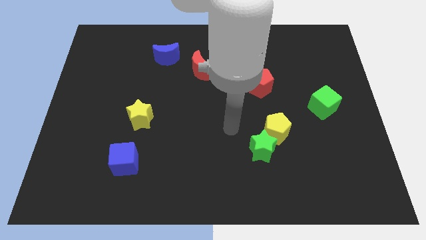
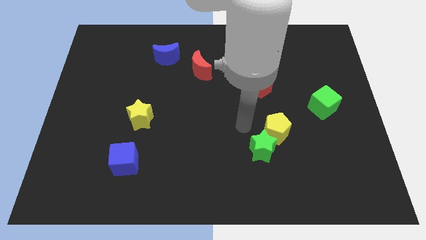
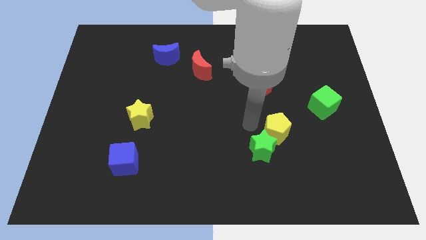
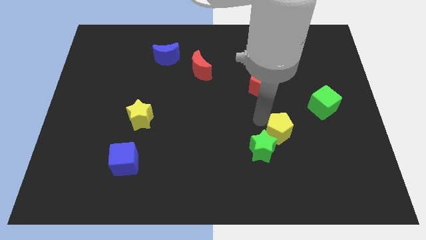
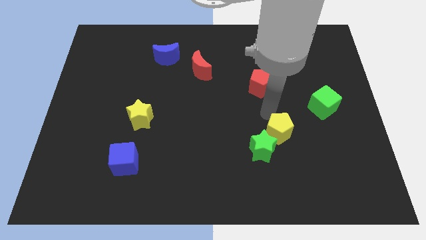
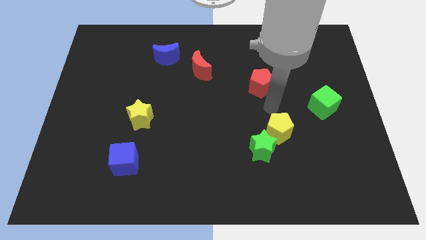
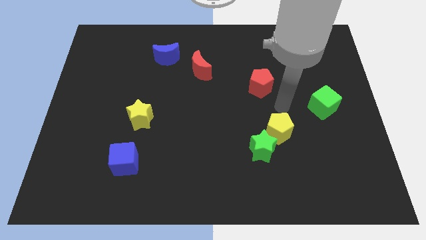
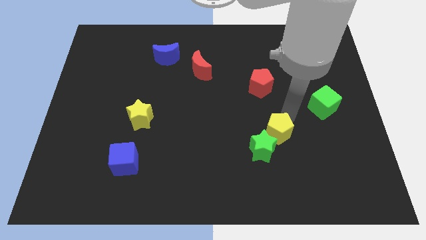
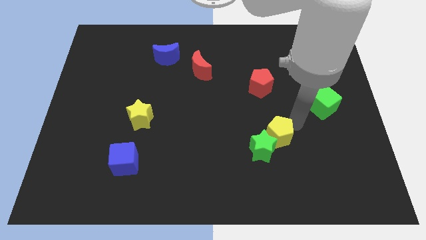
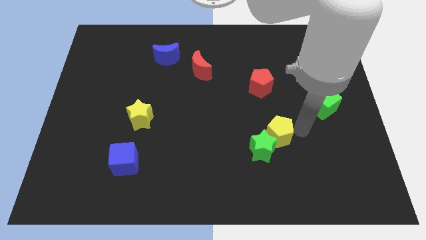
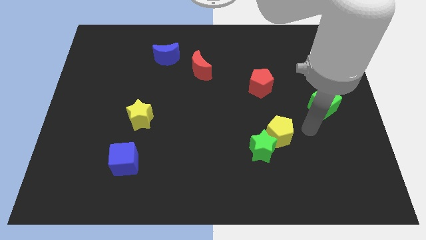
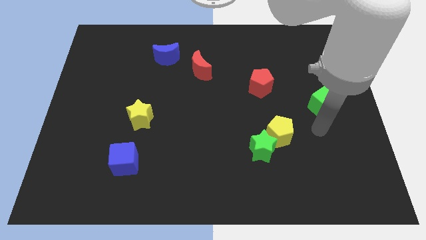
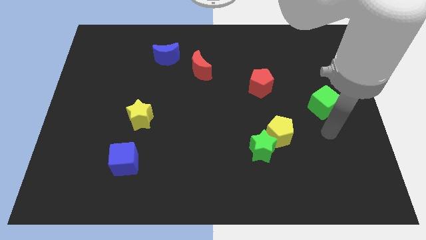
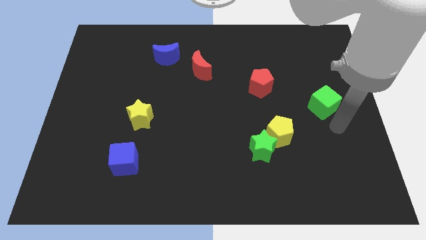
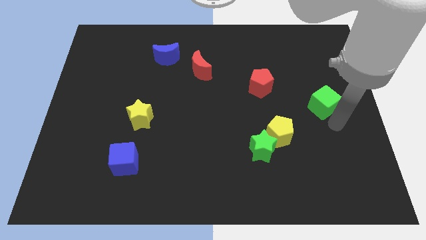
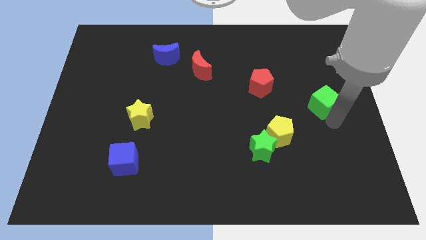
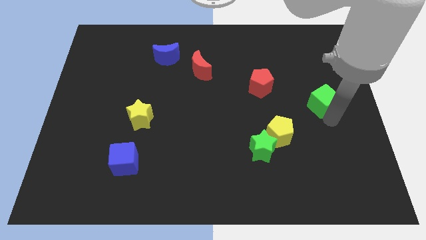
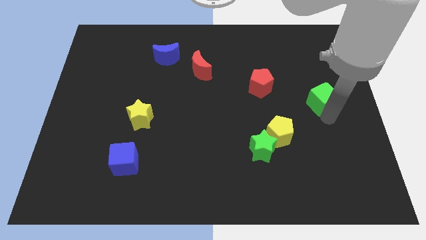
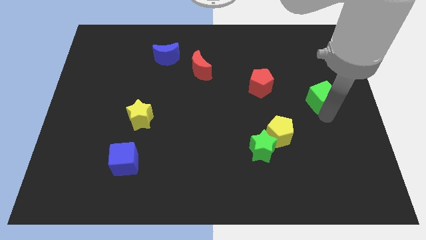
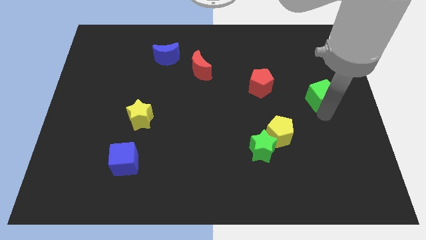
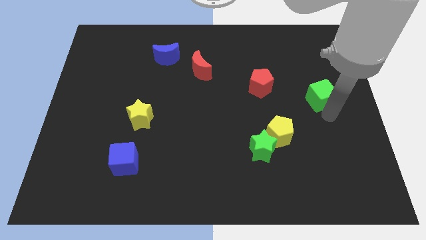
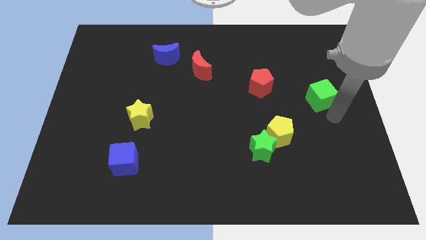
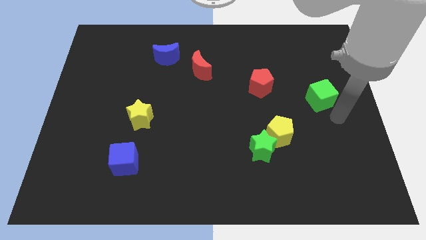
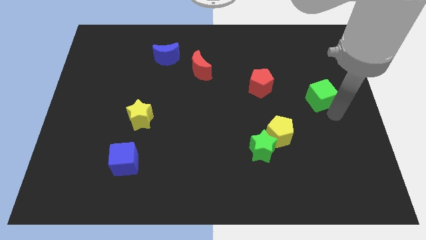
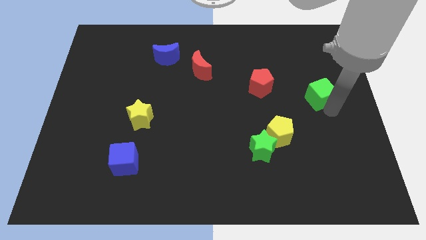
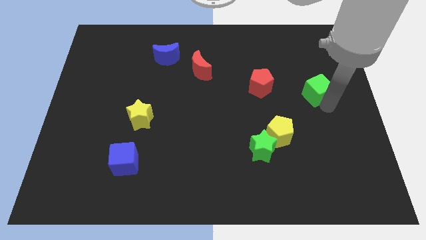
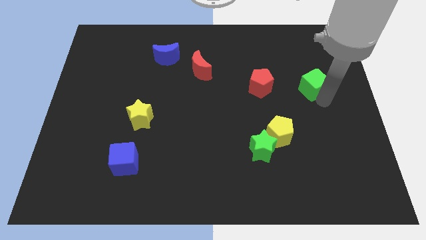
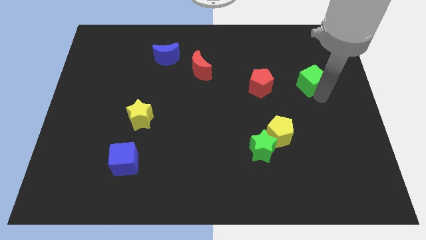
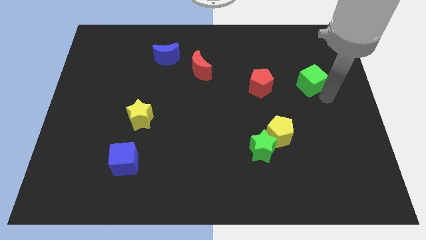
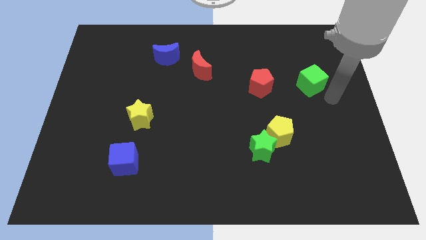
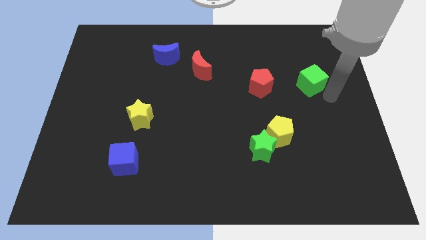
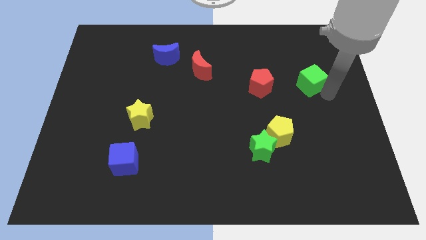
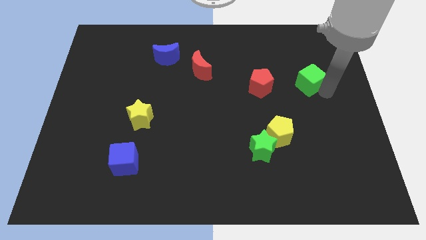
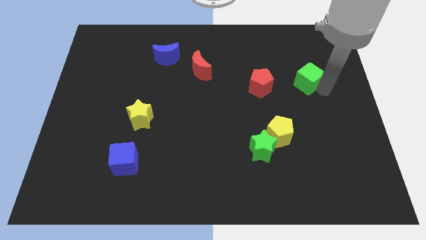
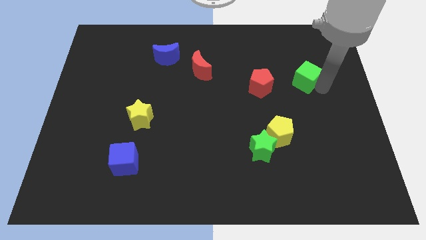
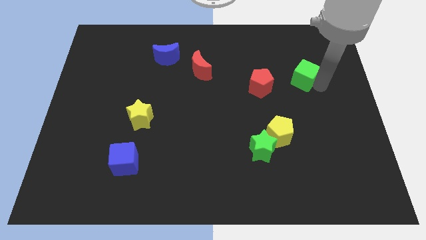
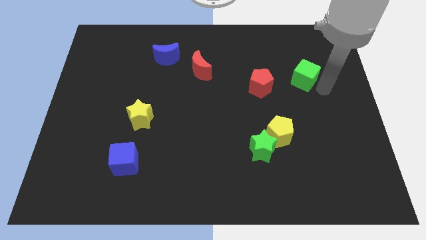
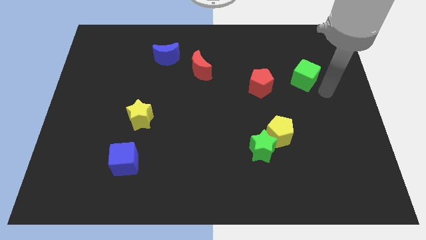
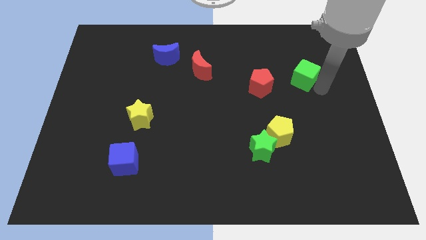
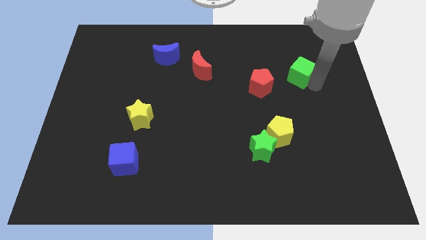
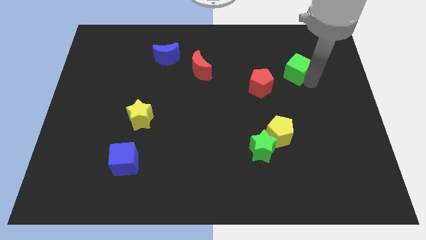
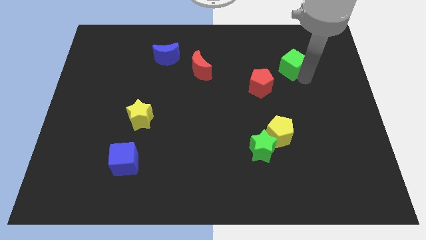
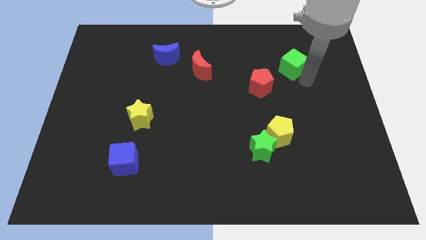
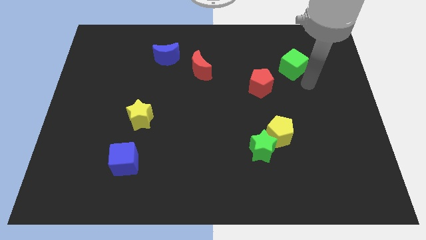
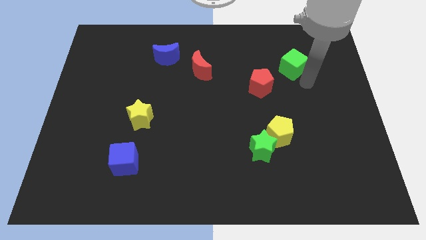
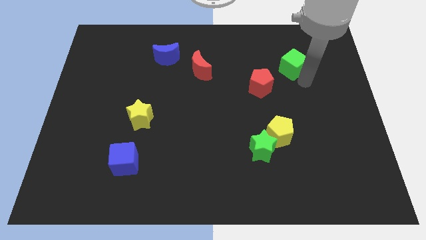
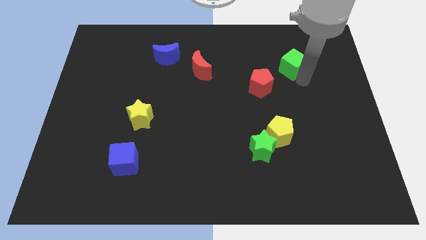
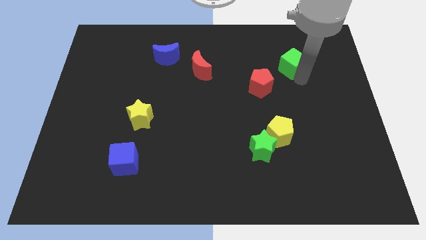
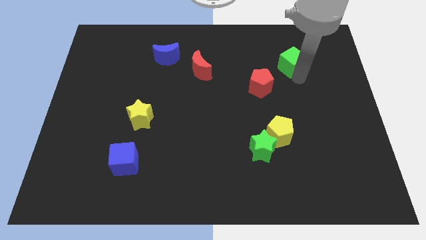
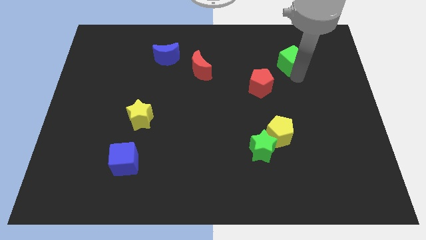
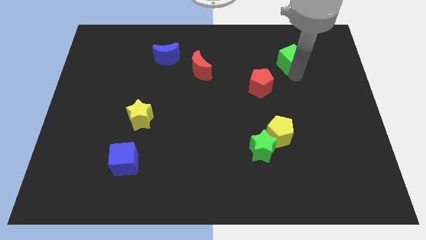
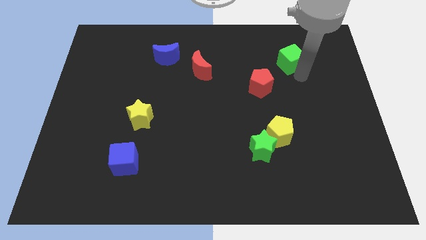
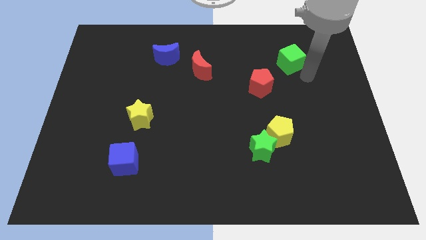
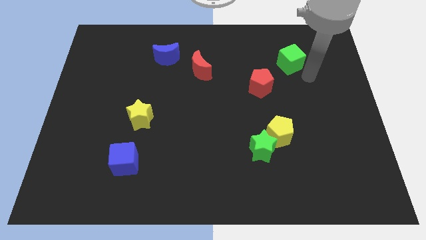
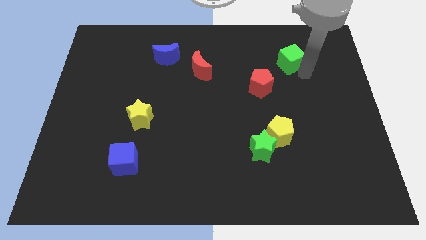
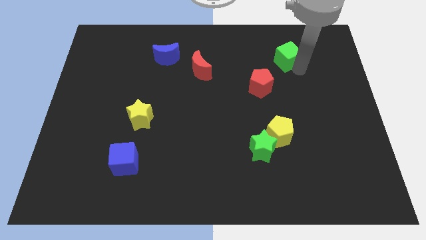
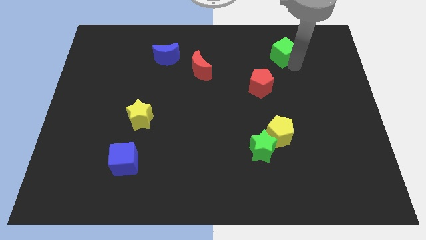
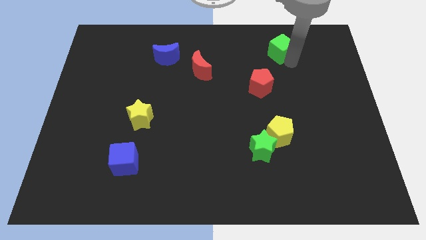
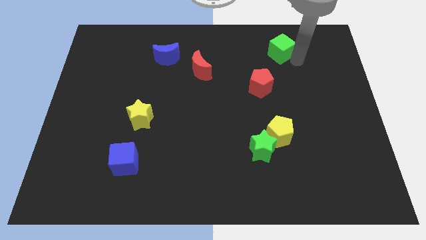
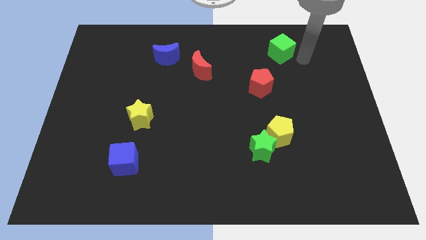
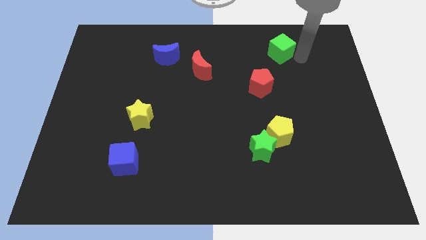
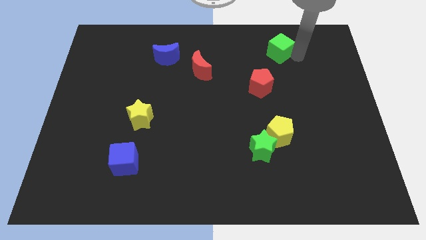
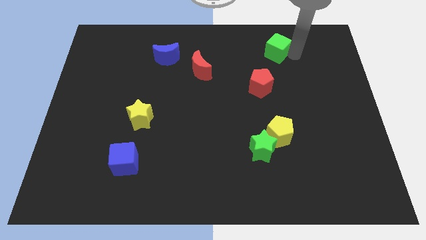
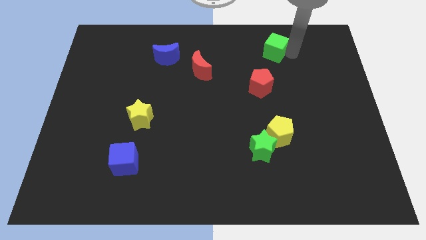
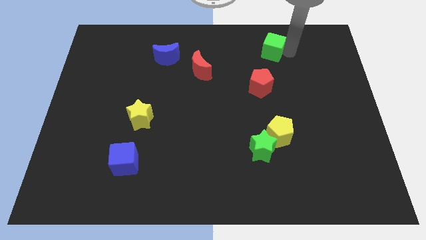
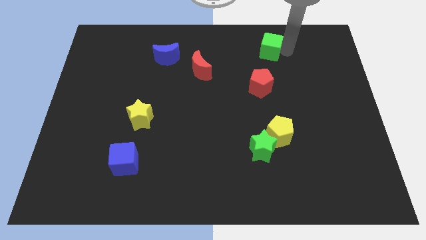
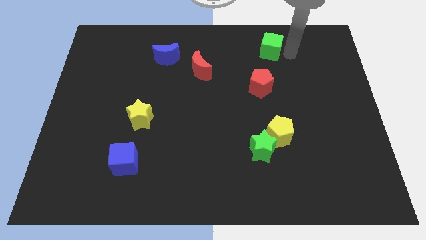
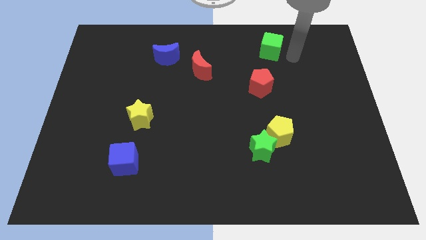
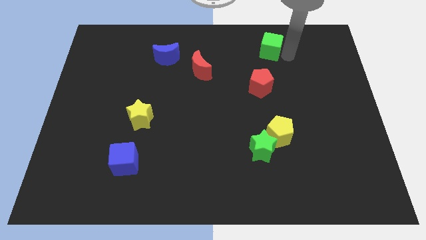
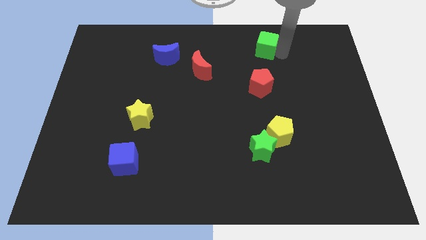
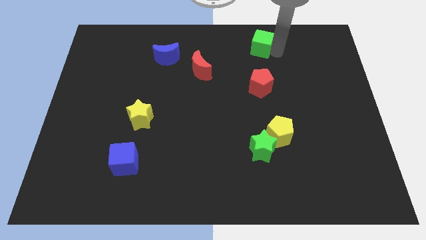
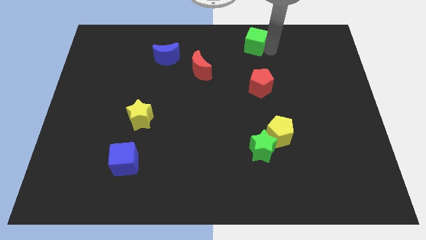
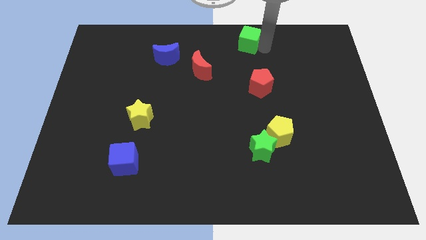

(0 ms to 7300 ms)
push the green cube to the top side
